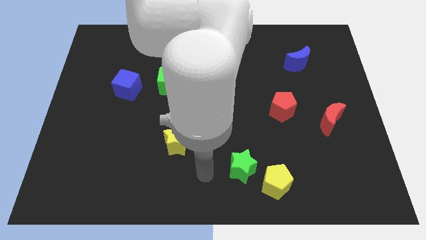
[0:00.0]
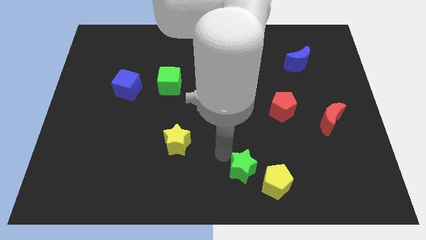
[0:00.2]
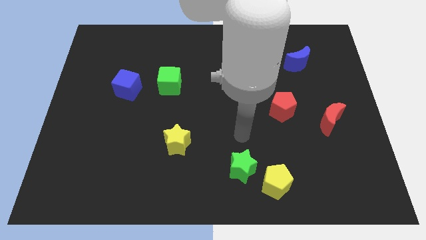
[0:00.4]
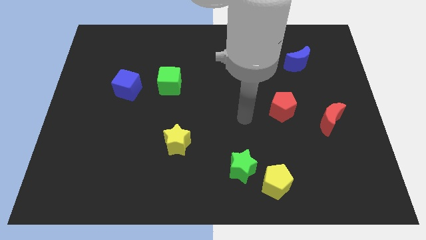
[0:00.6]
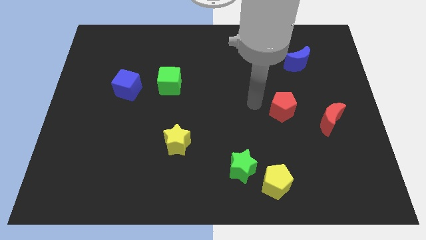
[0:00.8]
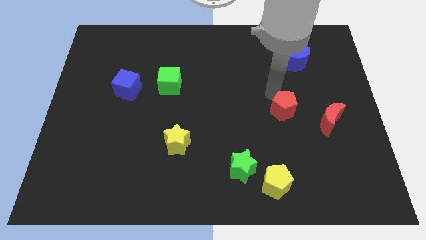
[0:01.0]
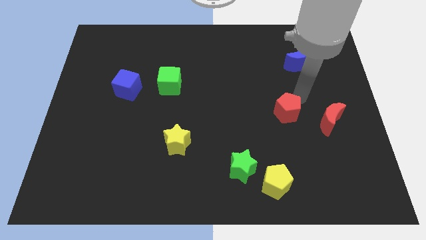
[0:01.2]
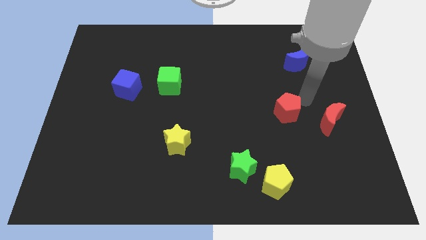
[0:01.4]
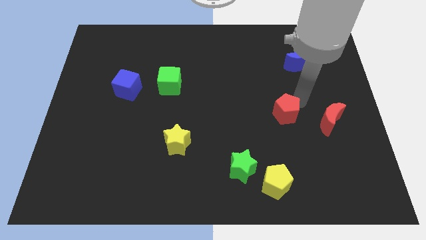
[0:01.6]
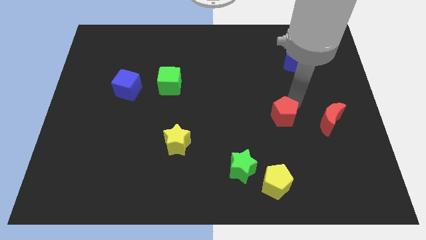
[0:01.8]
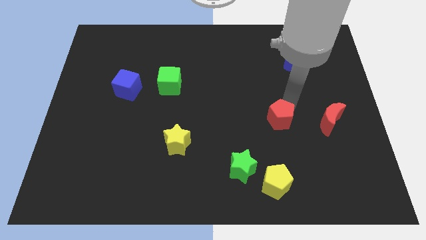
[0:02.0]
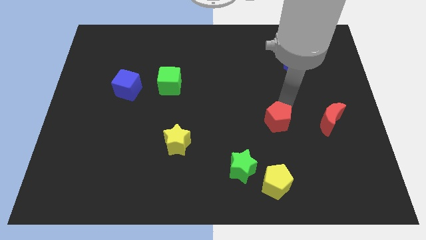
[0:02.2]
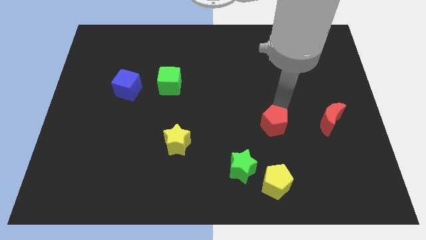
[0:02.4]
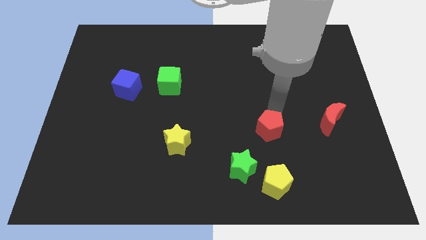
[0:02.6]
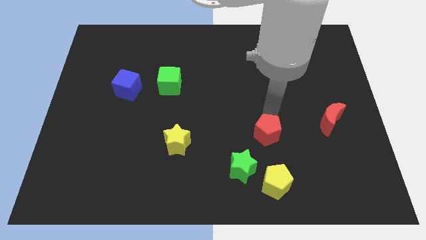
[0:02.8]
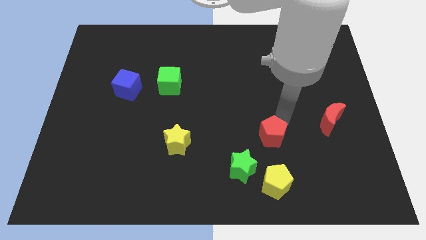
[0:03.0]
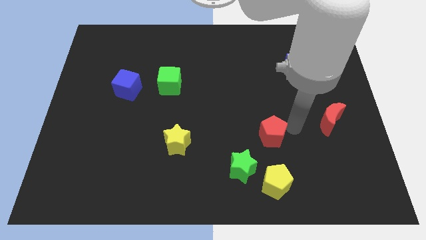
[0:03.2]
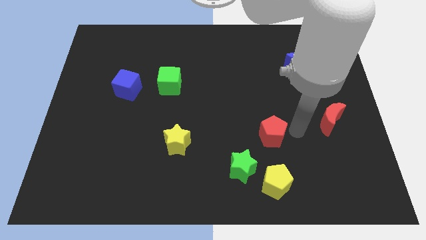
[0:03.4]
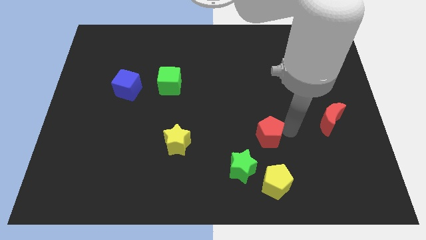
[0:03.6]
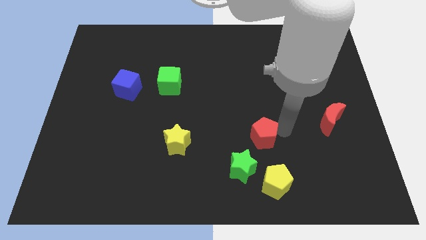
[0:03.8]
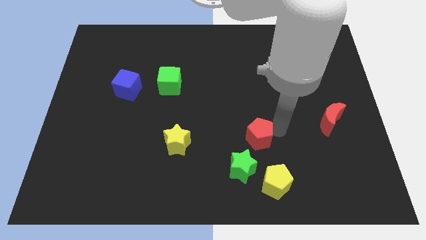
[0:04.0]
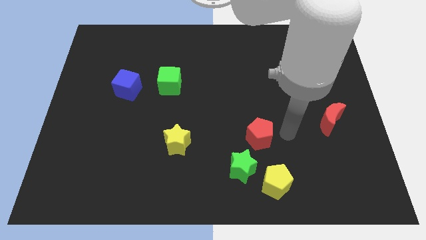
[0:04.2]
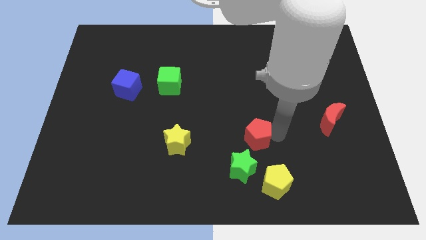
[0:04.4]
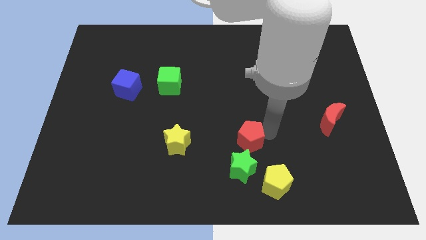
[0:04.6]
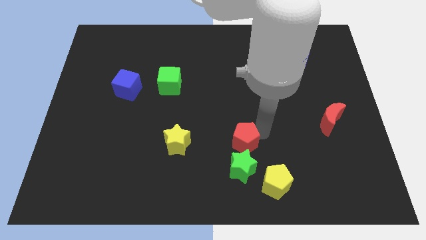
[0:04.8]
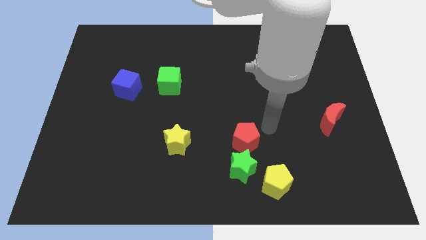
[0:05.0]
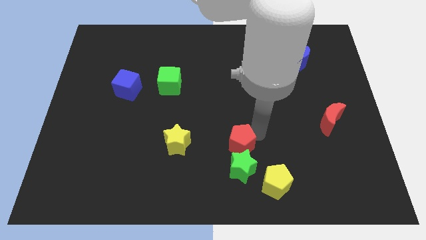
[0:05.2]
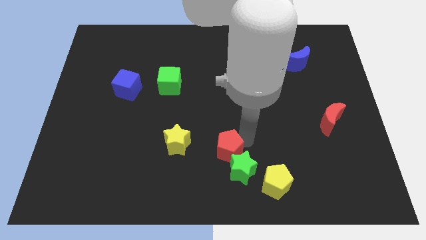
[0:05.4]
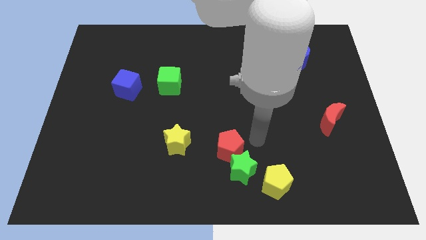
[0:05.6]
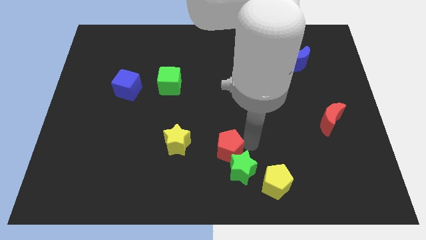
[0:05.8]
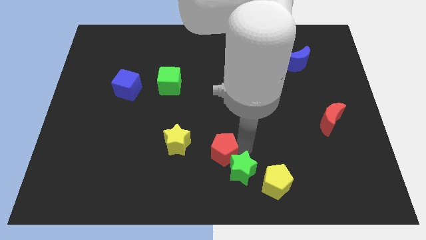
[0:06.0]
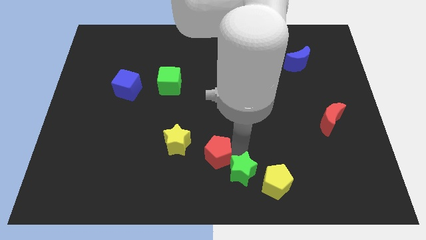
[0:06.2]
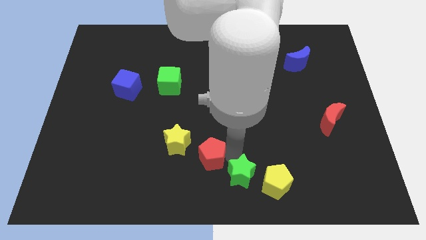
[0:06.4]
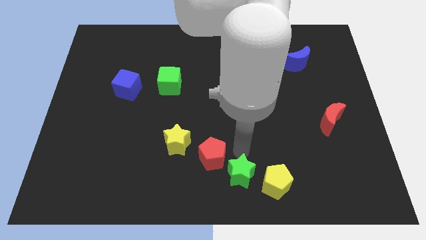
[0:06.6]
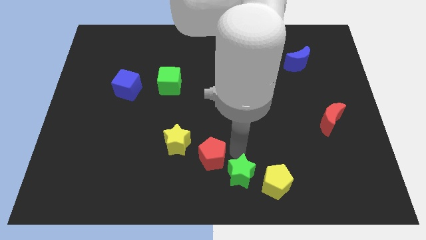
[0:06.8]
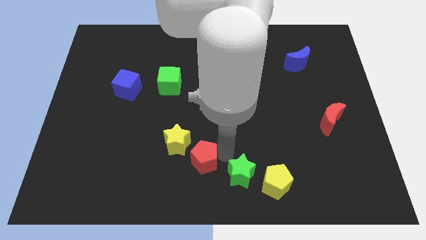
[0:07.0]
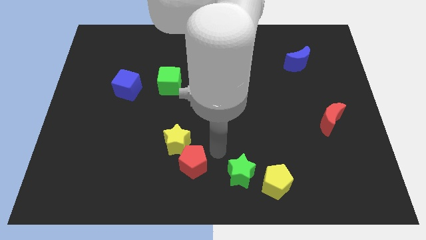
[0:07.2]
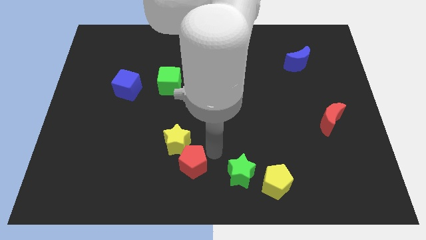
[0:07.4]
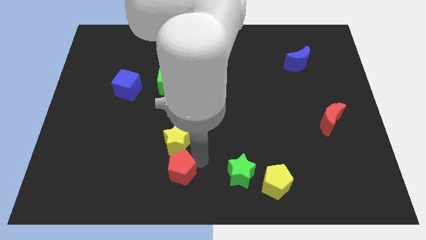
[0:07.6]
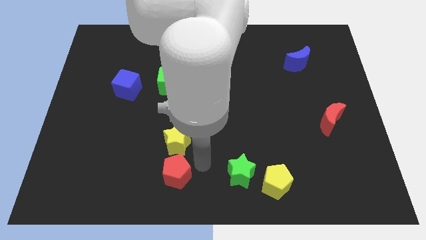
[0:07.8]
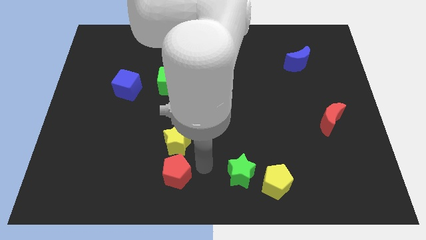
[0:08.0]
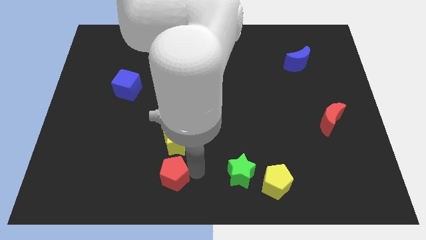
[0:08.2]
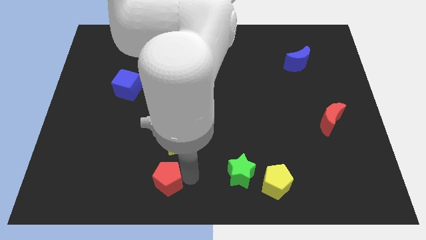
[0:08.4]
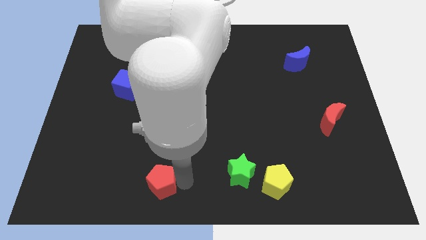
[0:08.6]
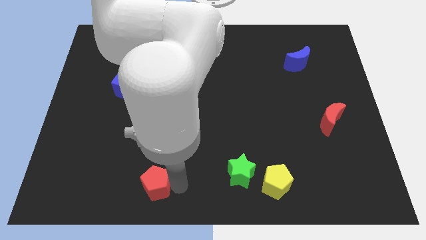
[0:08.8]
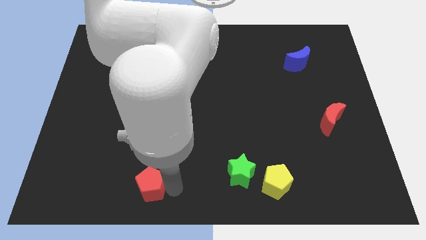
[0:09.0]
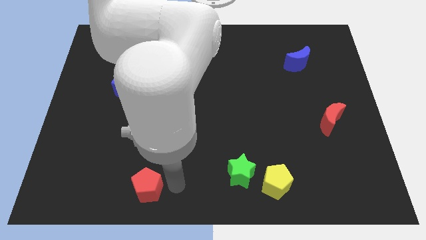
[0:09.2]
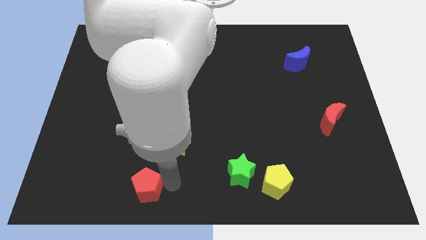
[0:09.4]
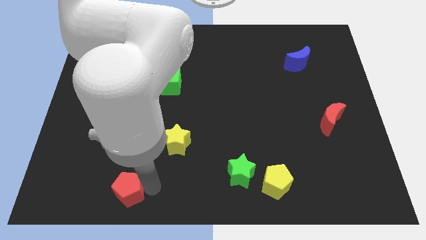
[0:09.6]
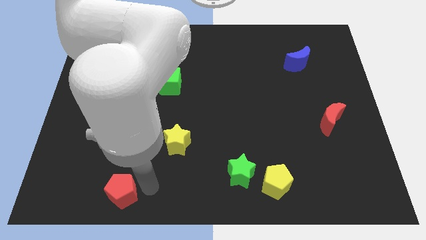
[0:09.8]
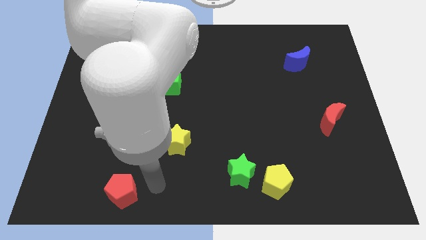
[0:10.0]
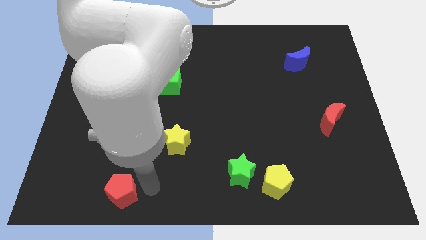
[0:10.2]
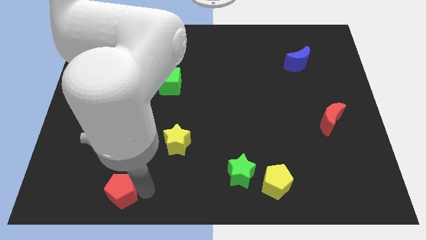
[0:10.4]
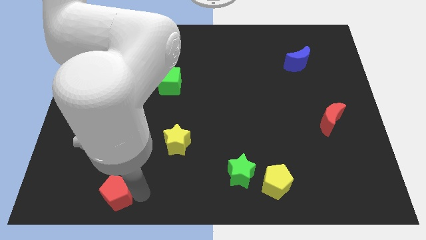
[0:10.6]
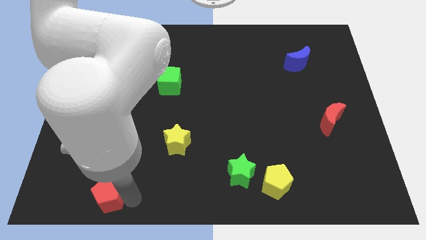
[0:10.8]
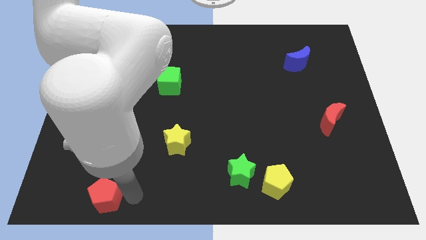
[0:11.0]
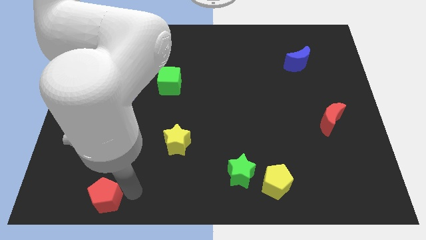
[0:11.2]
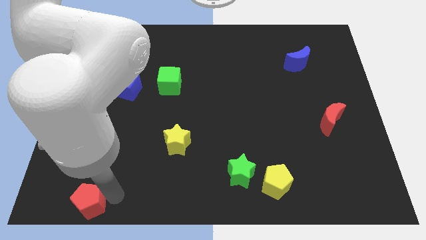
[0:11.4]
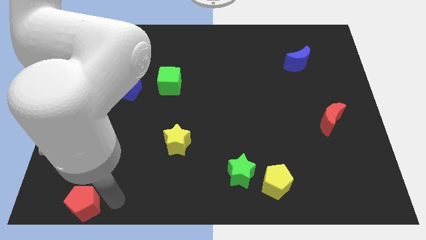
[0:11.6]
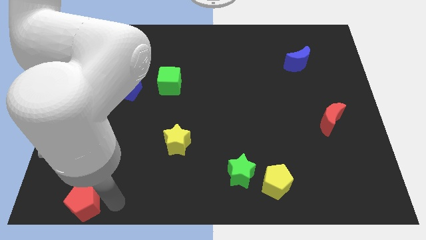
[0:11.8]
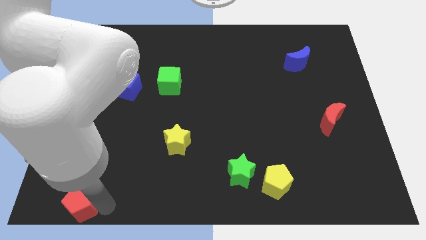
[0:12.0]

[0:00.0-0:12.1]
slide the red pentagon to the bottom left
